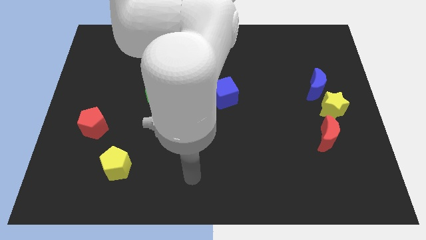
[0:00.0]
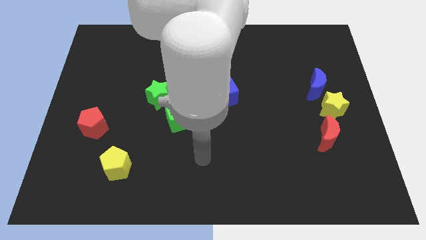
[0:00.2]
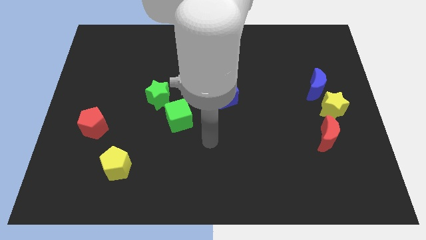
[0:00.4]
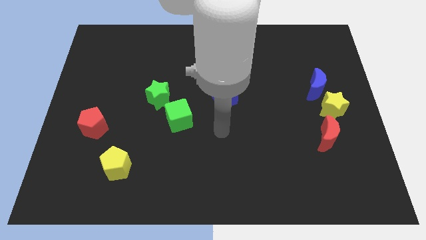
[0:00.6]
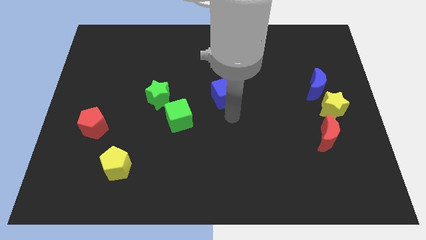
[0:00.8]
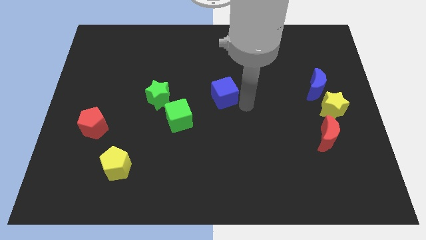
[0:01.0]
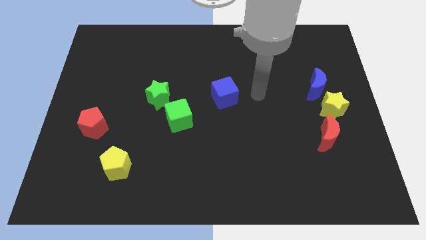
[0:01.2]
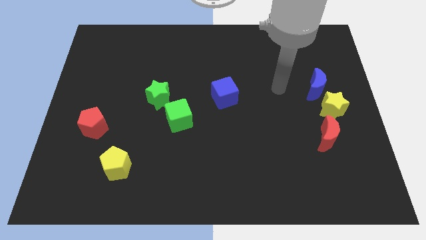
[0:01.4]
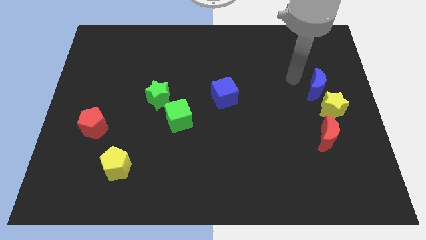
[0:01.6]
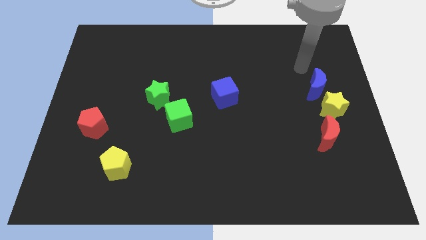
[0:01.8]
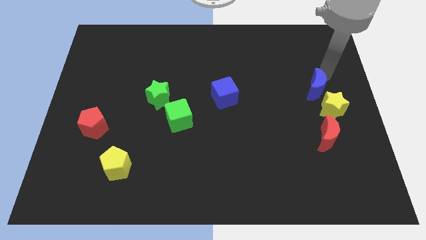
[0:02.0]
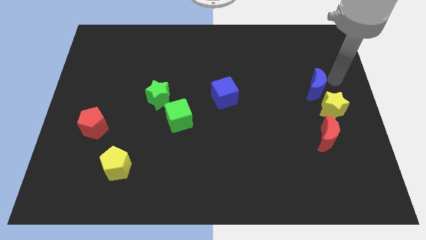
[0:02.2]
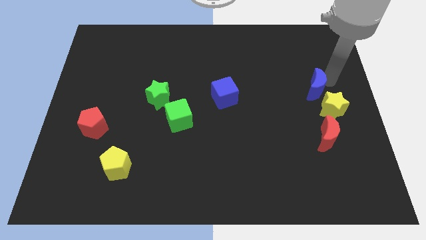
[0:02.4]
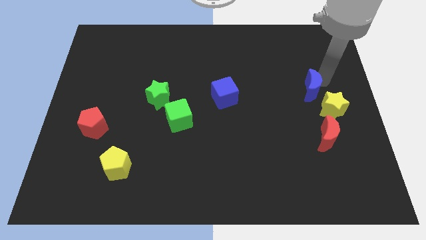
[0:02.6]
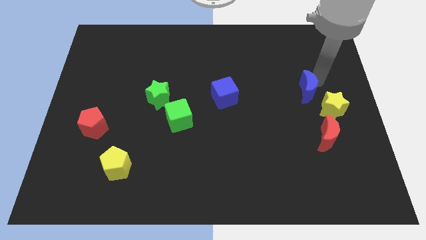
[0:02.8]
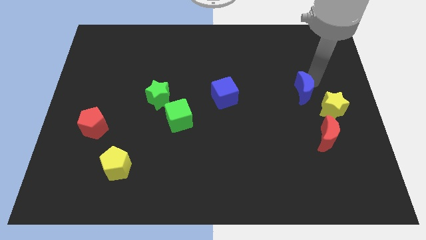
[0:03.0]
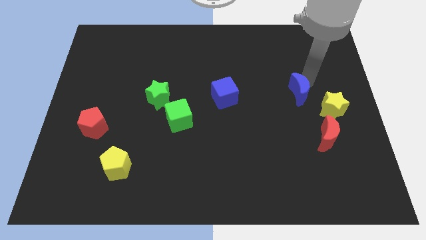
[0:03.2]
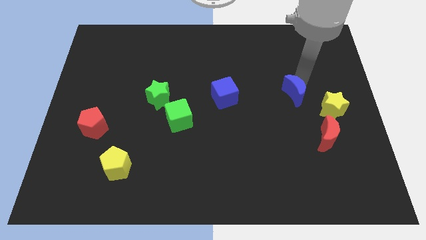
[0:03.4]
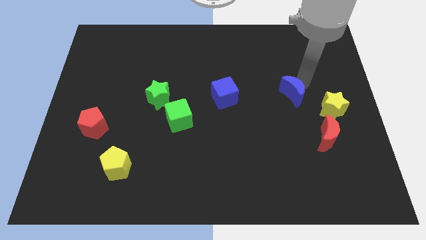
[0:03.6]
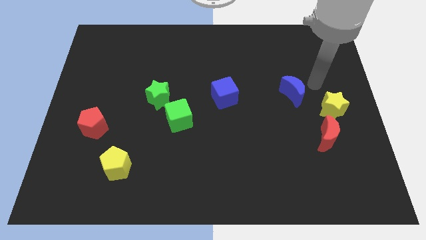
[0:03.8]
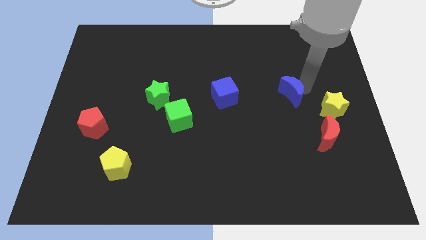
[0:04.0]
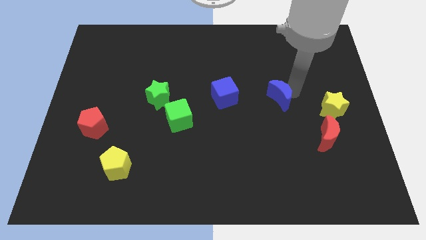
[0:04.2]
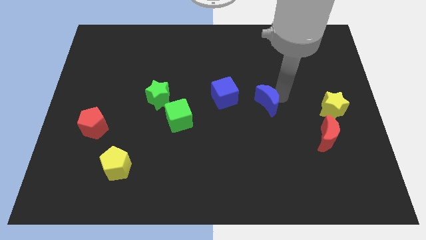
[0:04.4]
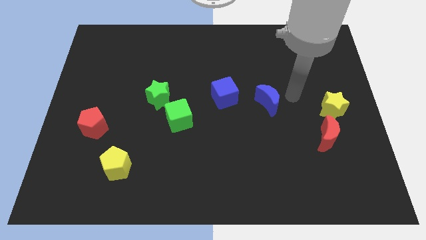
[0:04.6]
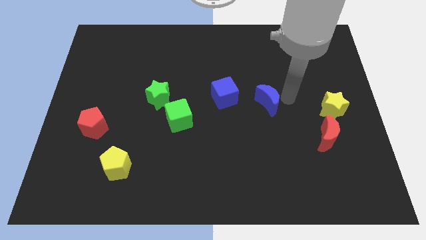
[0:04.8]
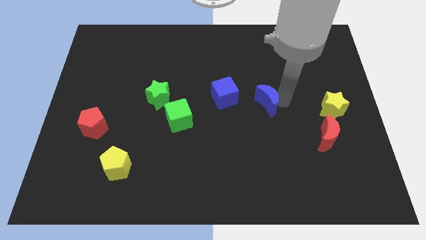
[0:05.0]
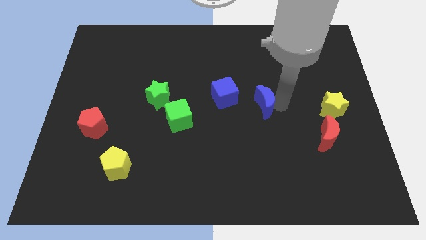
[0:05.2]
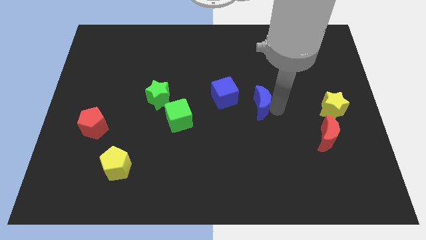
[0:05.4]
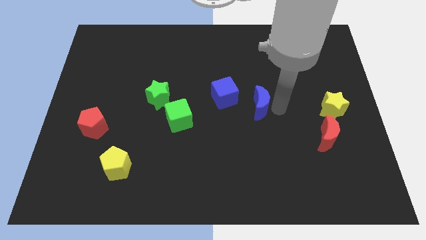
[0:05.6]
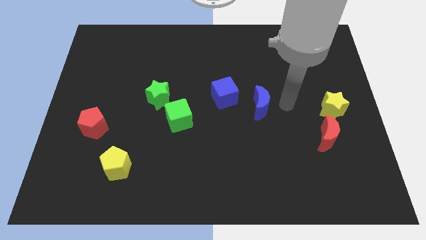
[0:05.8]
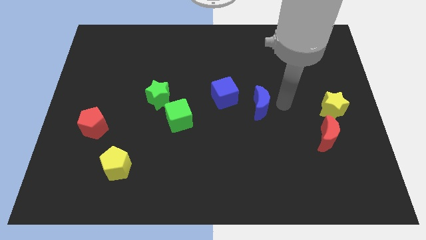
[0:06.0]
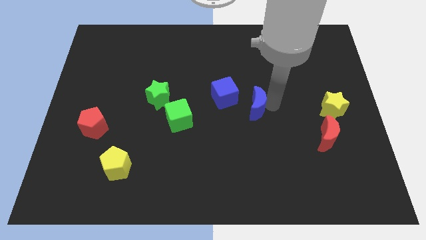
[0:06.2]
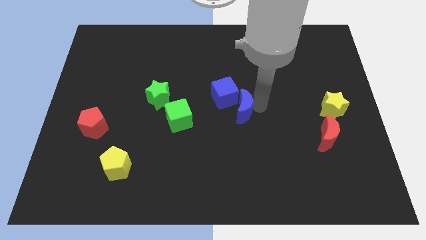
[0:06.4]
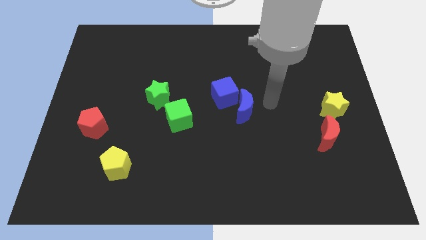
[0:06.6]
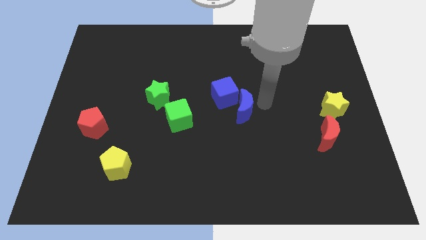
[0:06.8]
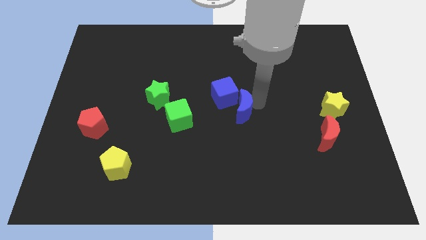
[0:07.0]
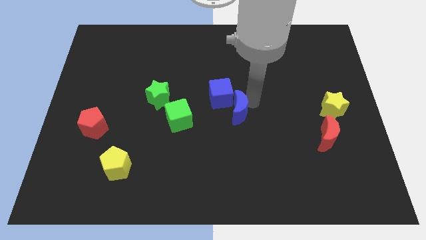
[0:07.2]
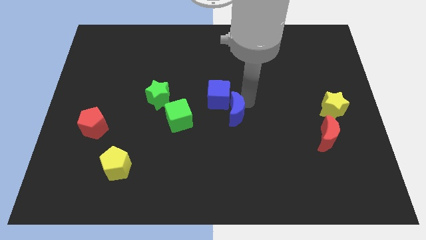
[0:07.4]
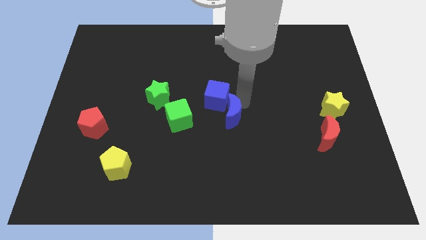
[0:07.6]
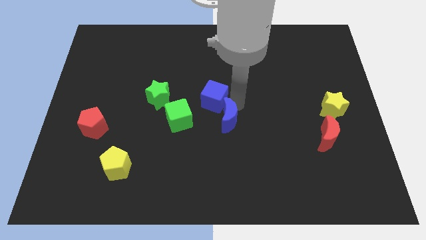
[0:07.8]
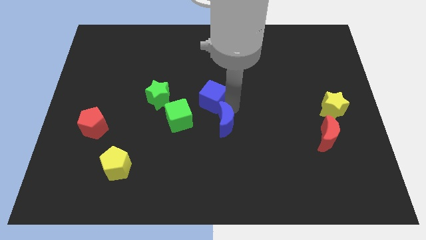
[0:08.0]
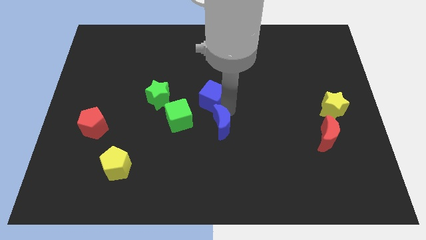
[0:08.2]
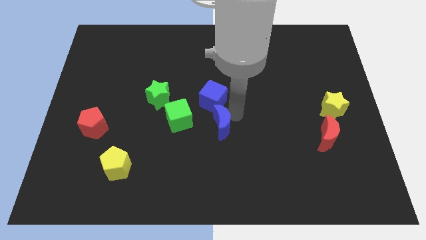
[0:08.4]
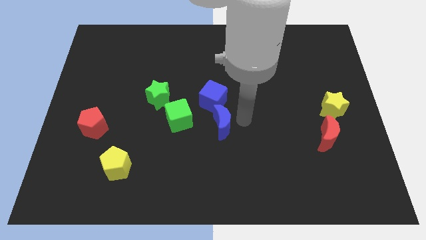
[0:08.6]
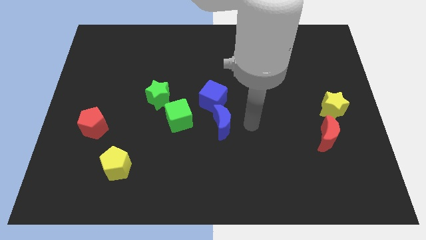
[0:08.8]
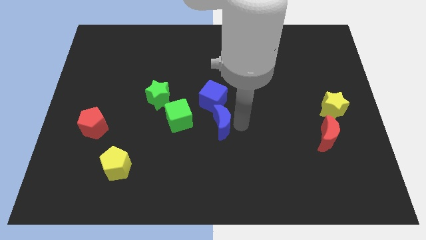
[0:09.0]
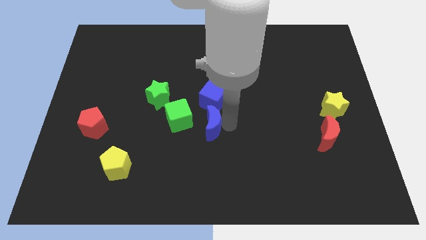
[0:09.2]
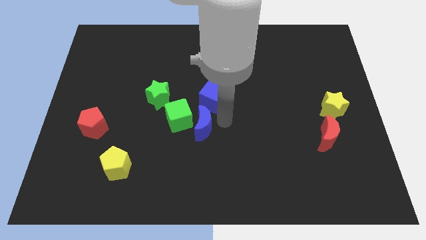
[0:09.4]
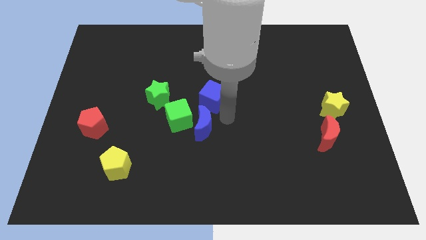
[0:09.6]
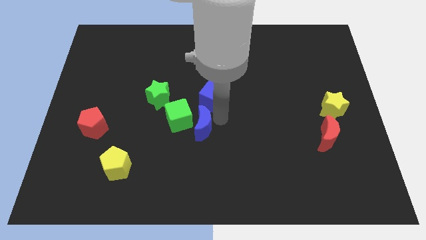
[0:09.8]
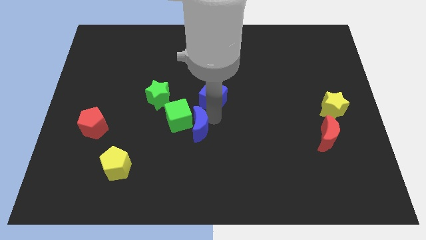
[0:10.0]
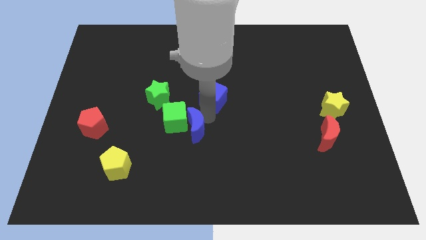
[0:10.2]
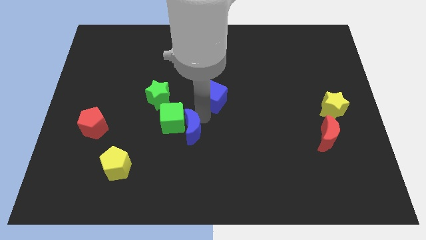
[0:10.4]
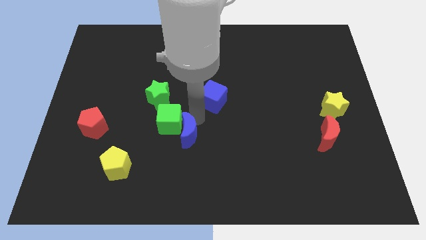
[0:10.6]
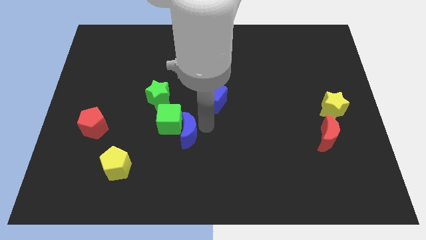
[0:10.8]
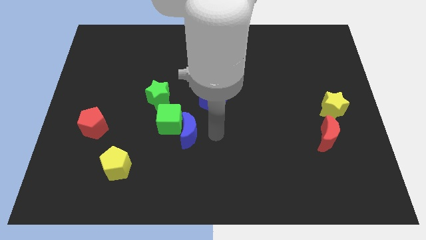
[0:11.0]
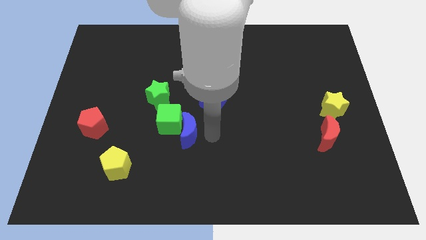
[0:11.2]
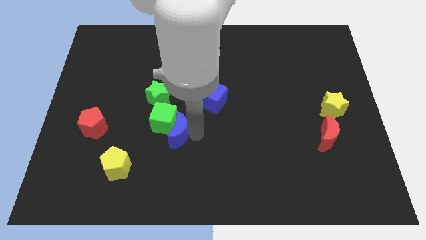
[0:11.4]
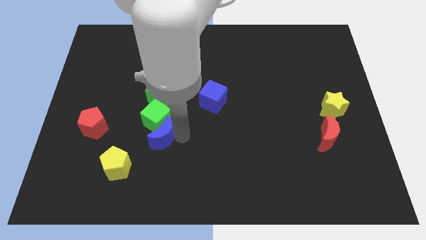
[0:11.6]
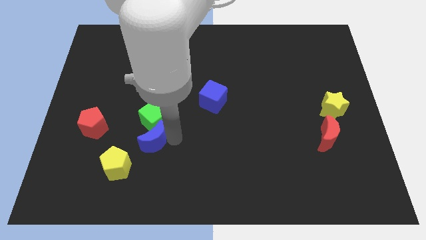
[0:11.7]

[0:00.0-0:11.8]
slide the blue moon right of the red pentagon

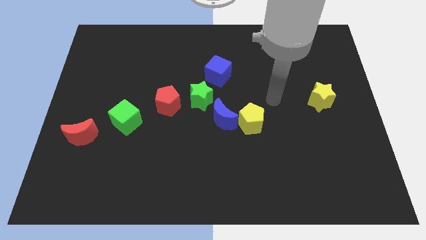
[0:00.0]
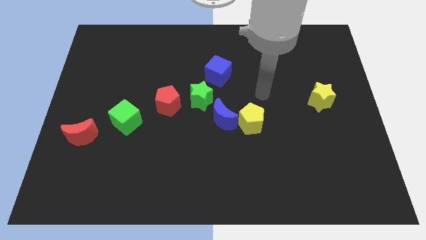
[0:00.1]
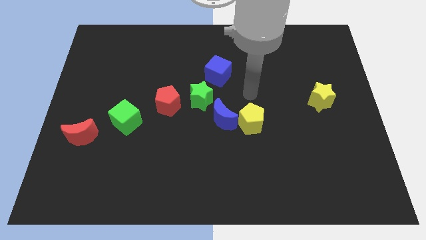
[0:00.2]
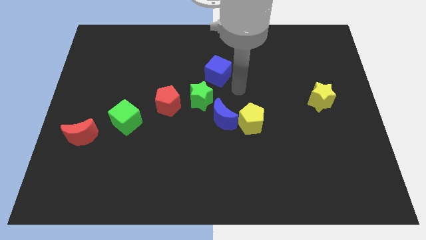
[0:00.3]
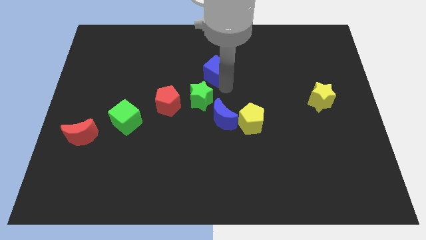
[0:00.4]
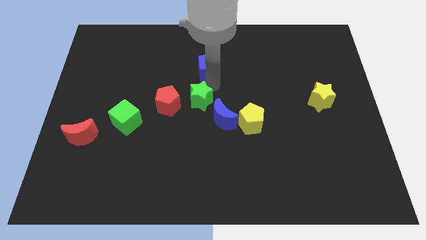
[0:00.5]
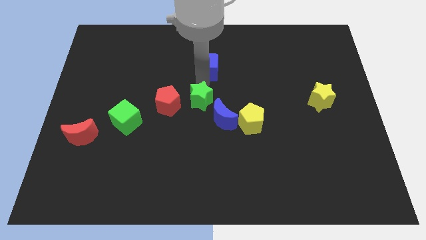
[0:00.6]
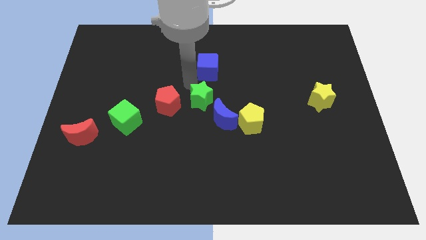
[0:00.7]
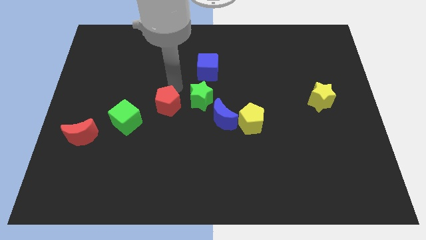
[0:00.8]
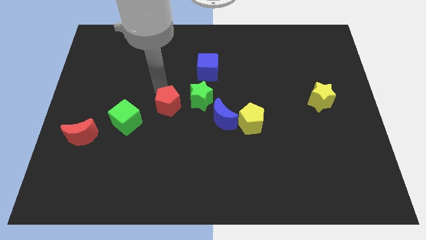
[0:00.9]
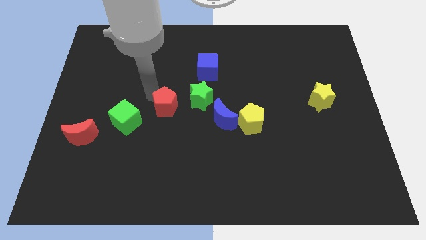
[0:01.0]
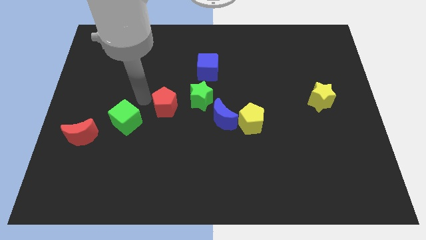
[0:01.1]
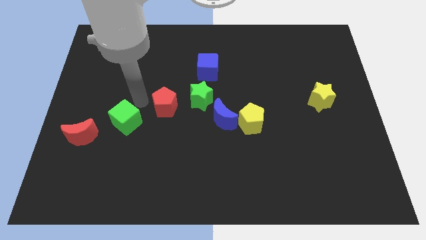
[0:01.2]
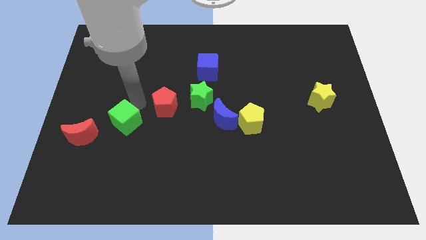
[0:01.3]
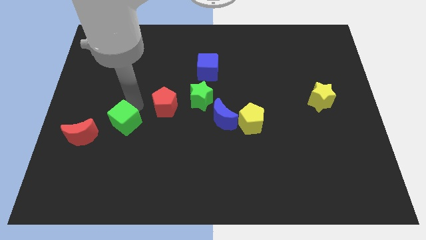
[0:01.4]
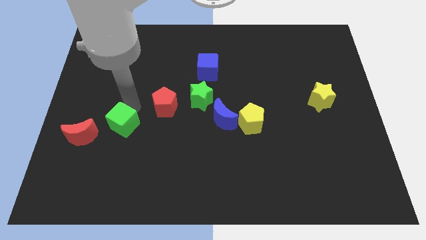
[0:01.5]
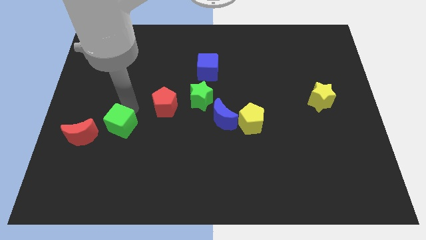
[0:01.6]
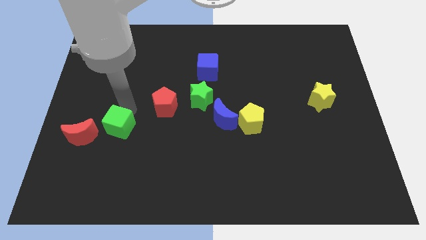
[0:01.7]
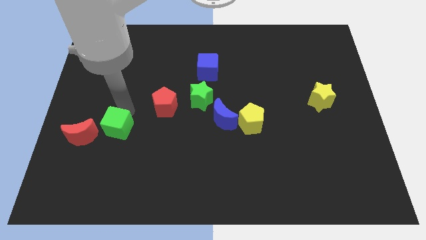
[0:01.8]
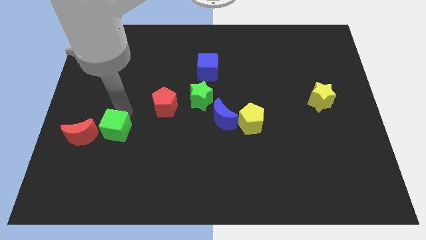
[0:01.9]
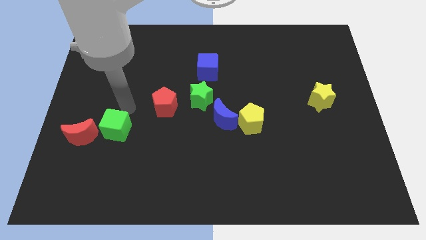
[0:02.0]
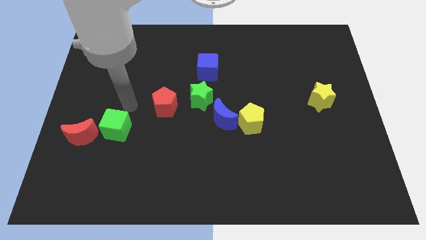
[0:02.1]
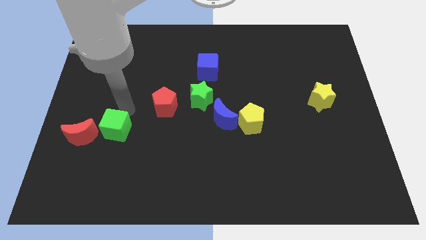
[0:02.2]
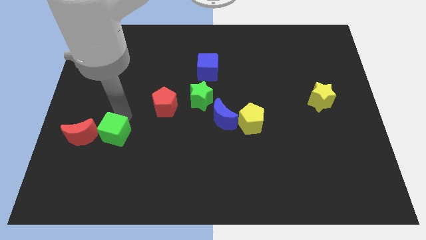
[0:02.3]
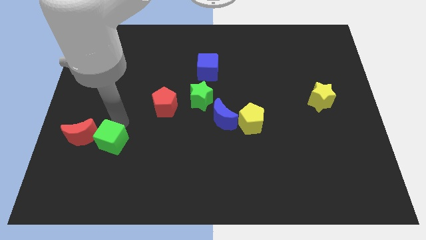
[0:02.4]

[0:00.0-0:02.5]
slide the green cube to the bottom right of the red moon
